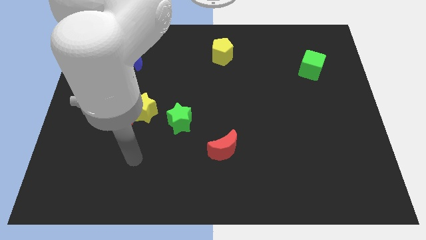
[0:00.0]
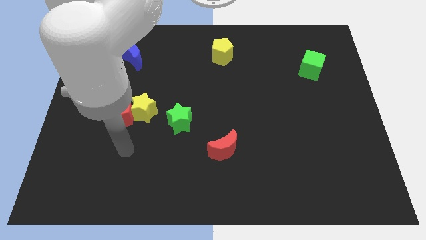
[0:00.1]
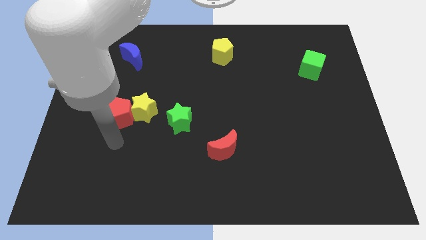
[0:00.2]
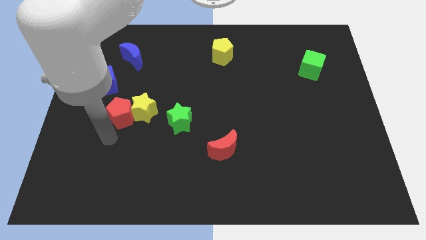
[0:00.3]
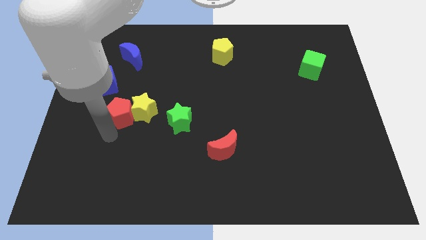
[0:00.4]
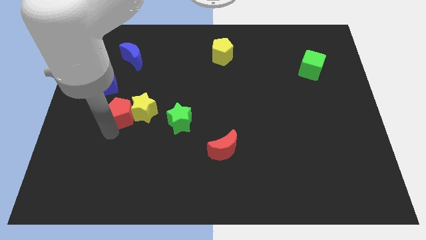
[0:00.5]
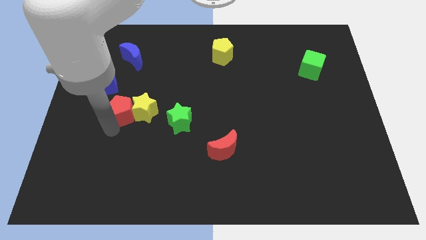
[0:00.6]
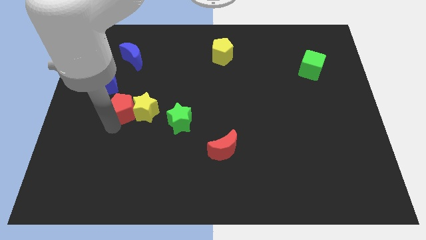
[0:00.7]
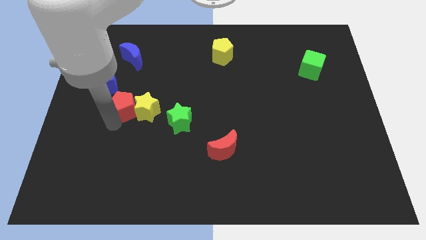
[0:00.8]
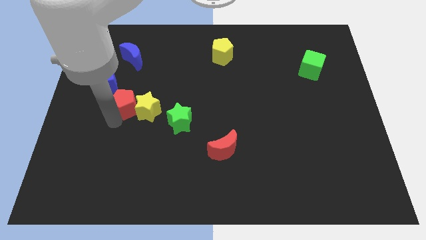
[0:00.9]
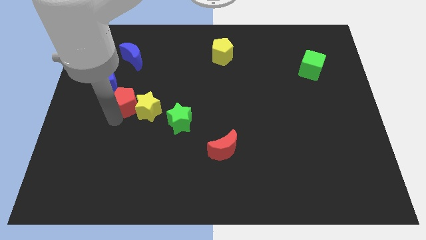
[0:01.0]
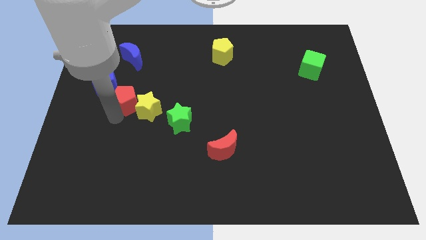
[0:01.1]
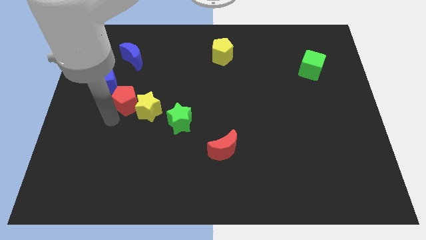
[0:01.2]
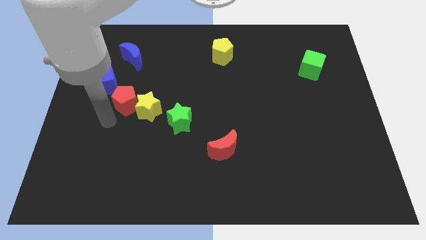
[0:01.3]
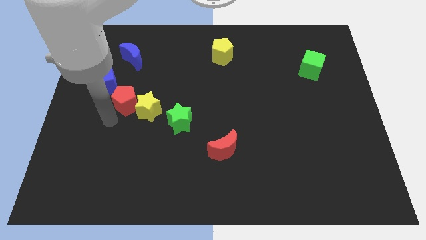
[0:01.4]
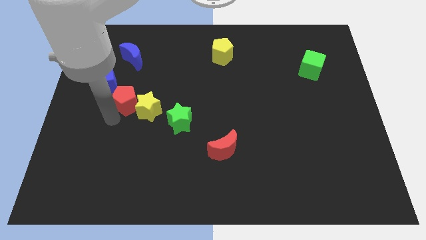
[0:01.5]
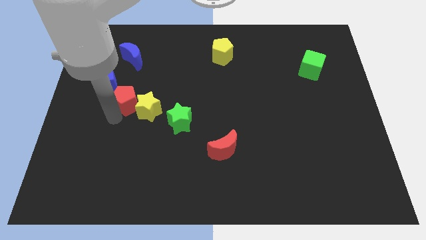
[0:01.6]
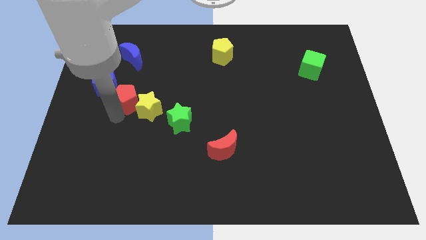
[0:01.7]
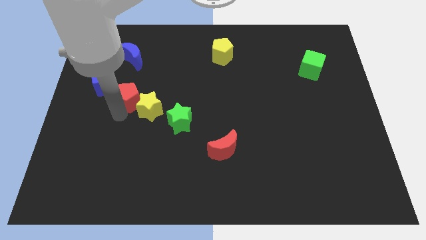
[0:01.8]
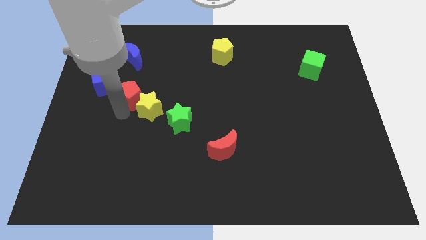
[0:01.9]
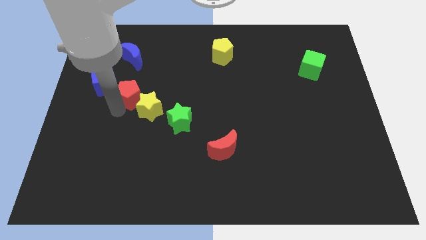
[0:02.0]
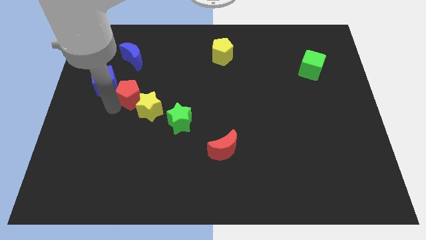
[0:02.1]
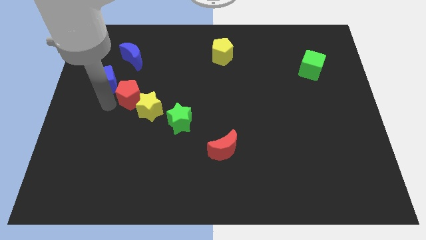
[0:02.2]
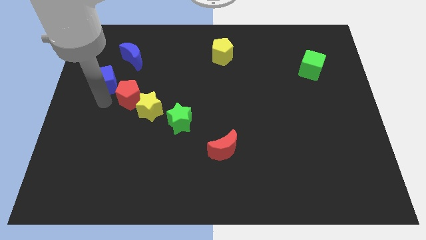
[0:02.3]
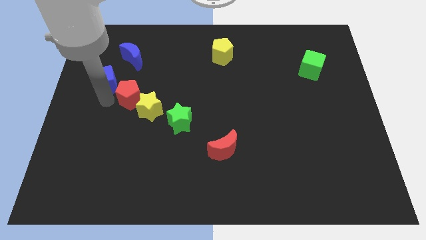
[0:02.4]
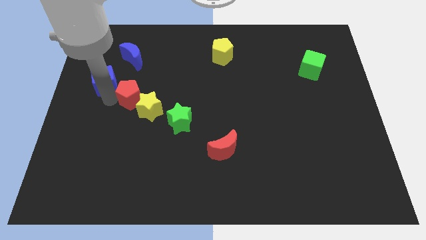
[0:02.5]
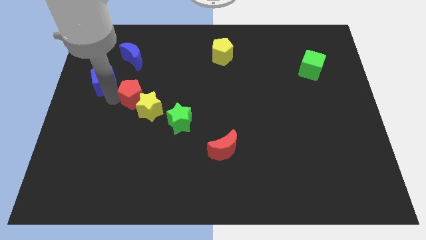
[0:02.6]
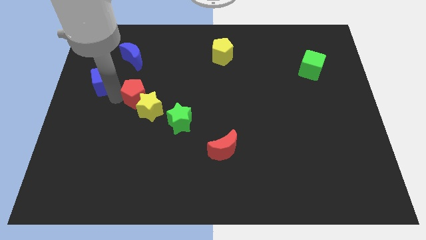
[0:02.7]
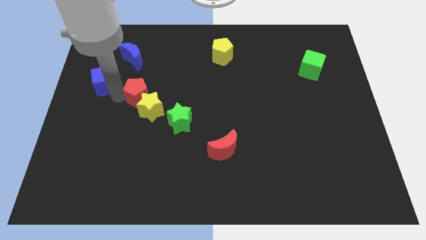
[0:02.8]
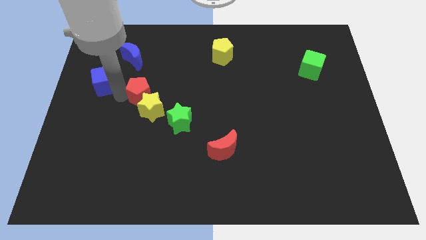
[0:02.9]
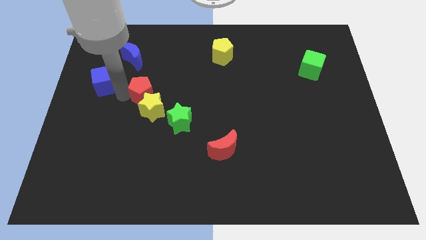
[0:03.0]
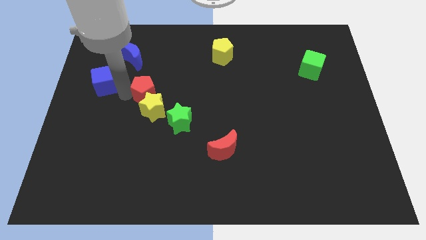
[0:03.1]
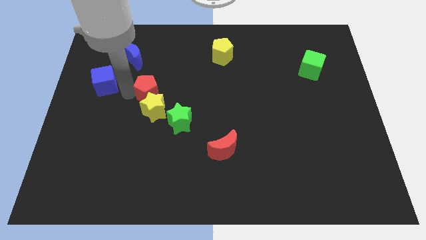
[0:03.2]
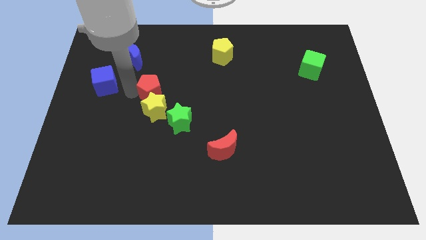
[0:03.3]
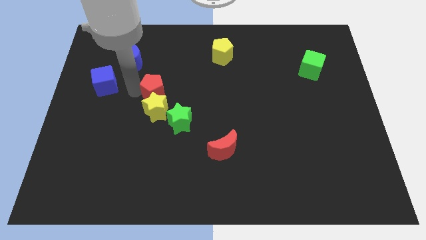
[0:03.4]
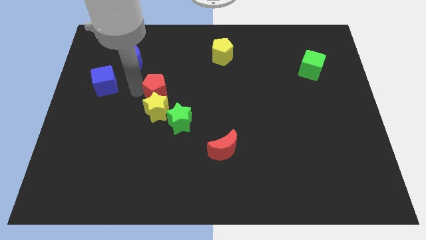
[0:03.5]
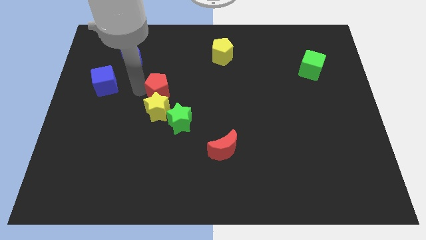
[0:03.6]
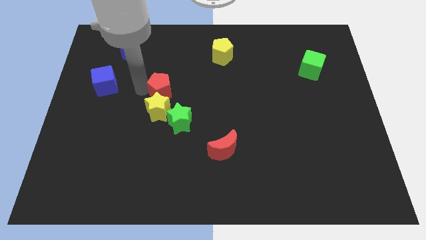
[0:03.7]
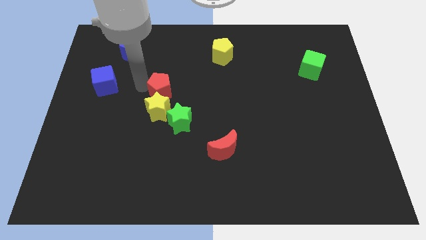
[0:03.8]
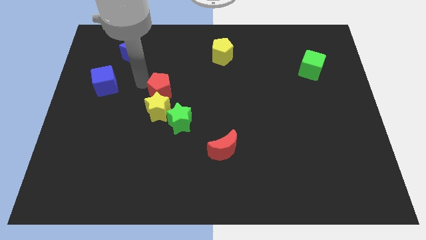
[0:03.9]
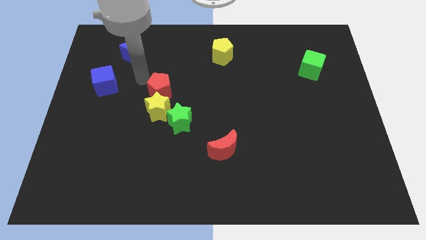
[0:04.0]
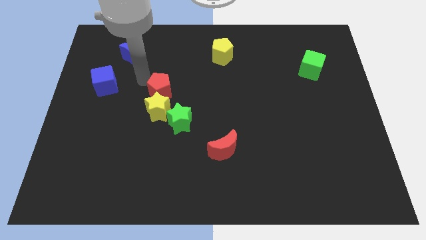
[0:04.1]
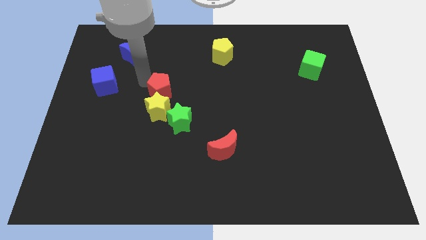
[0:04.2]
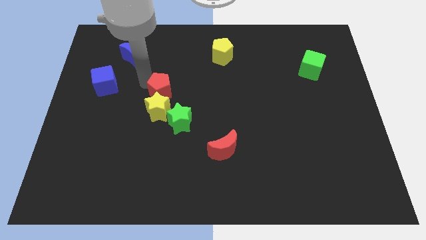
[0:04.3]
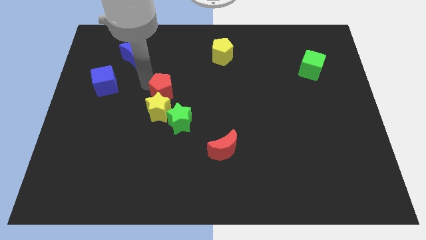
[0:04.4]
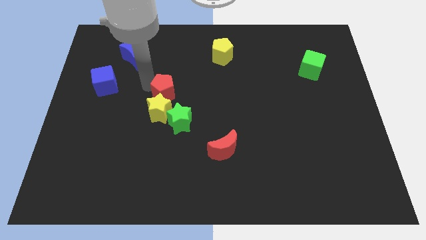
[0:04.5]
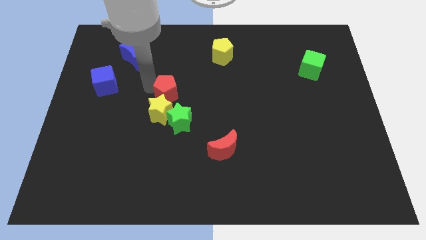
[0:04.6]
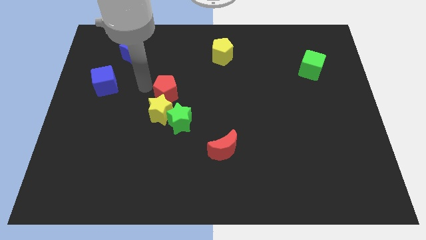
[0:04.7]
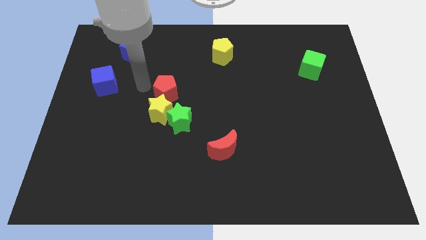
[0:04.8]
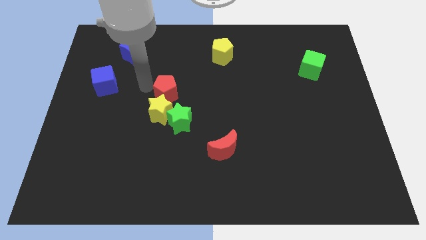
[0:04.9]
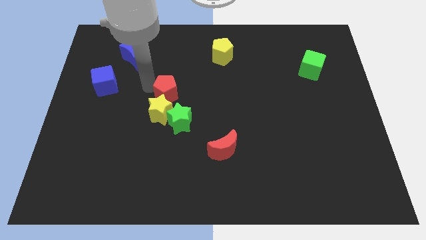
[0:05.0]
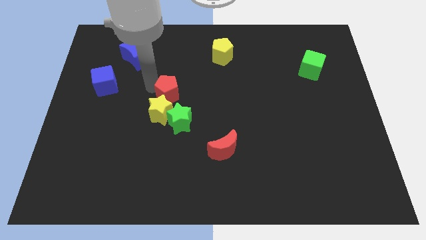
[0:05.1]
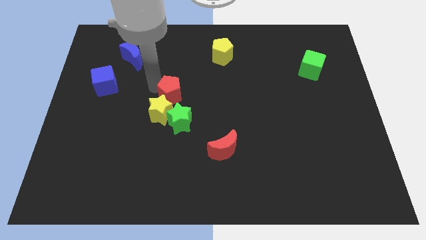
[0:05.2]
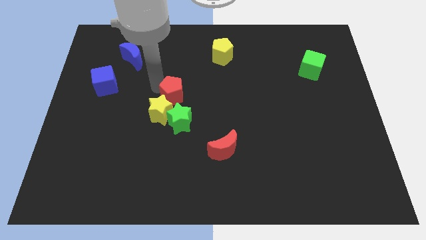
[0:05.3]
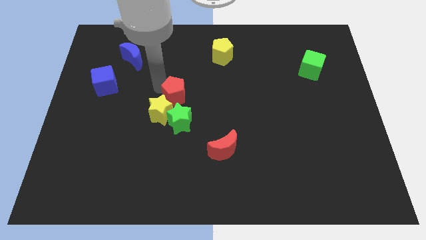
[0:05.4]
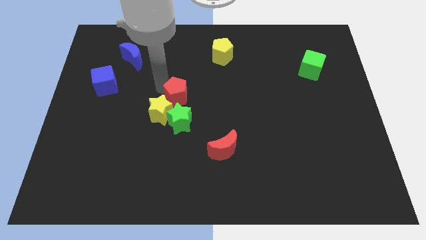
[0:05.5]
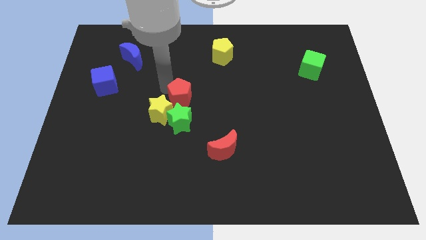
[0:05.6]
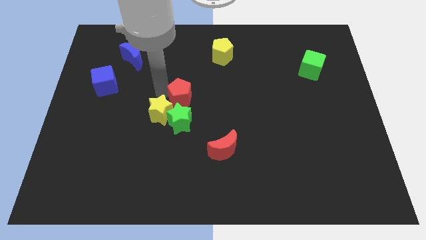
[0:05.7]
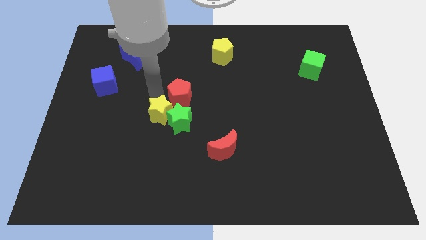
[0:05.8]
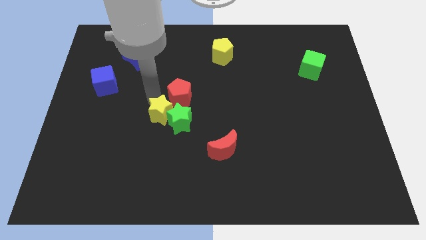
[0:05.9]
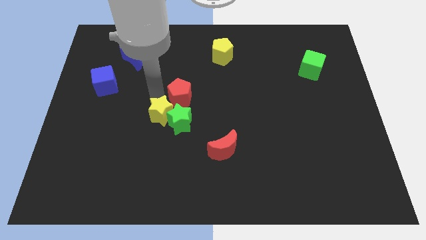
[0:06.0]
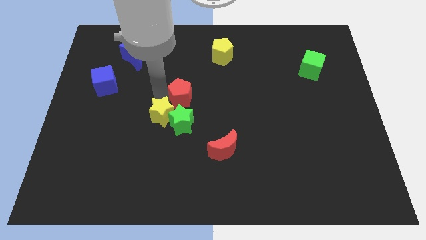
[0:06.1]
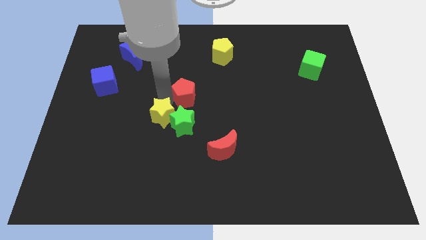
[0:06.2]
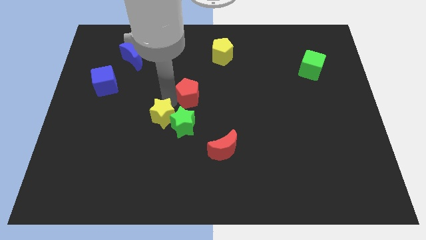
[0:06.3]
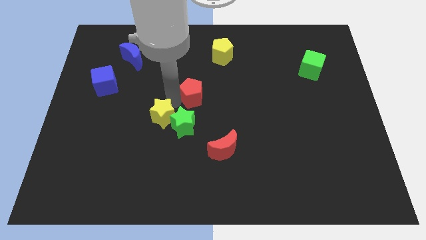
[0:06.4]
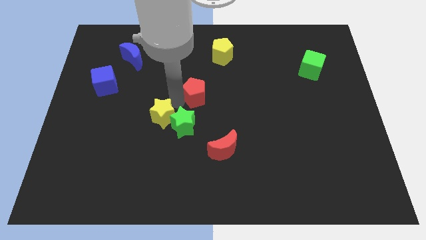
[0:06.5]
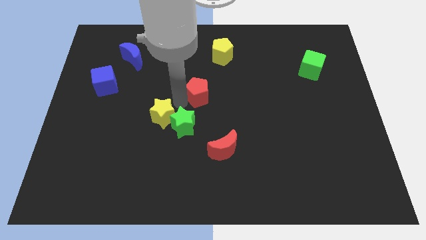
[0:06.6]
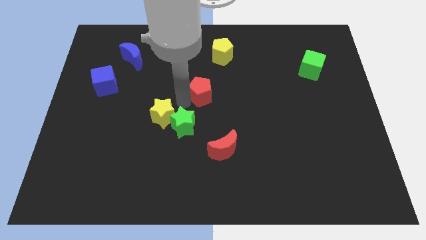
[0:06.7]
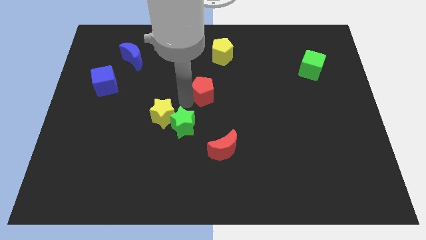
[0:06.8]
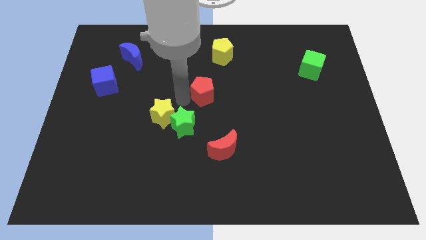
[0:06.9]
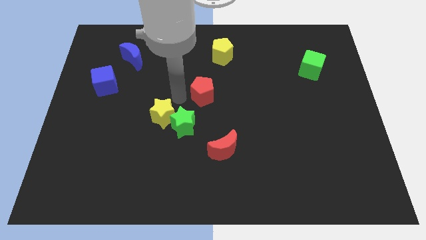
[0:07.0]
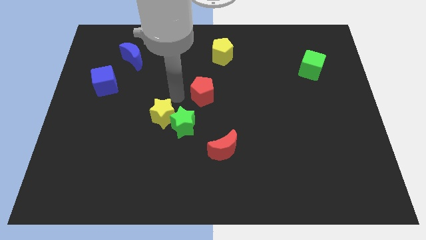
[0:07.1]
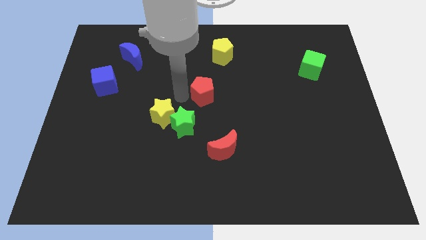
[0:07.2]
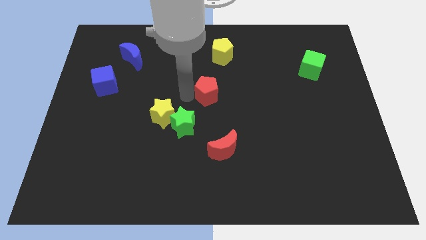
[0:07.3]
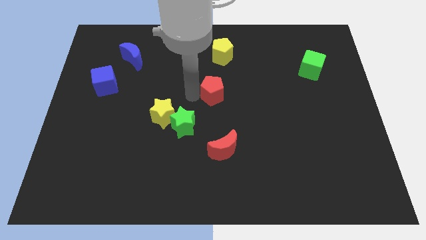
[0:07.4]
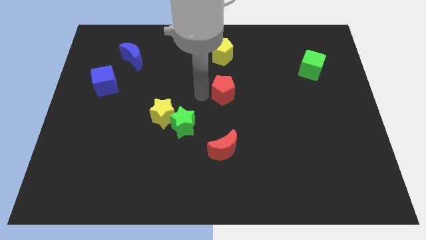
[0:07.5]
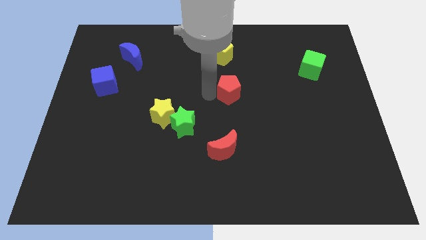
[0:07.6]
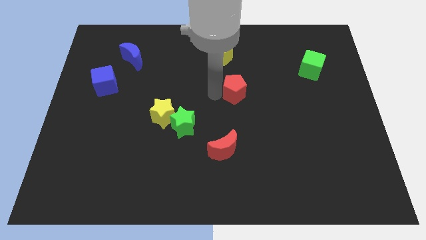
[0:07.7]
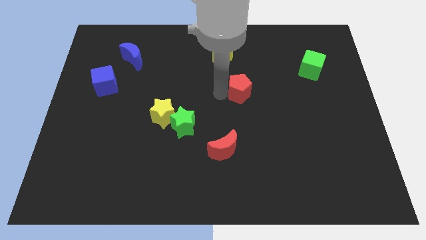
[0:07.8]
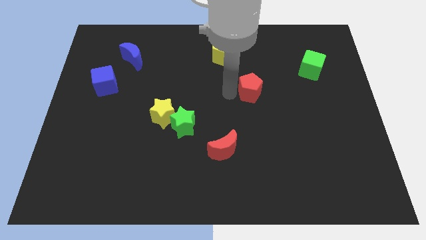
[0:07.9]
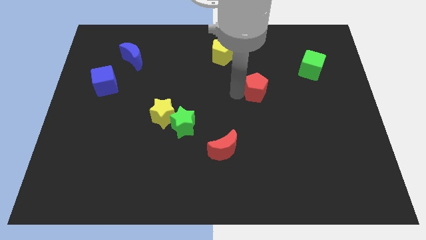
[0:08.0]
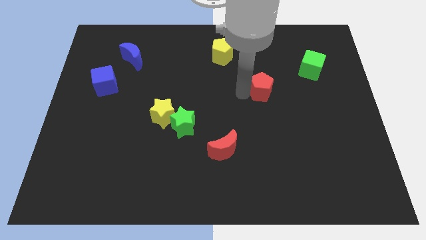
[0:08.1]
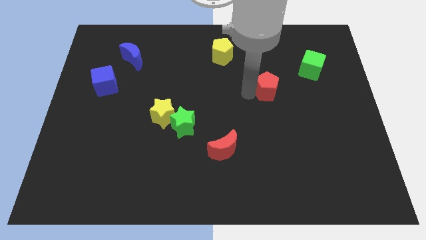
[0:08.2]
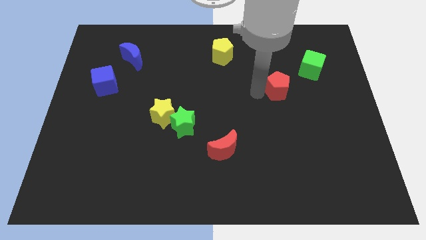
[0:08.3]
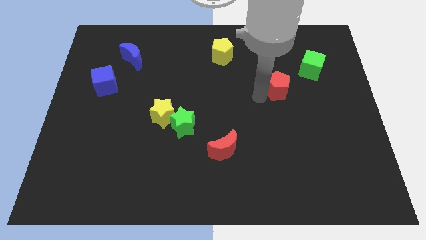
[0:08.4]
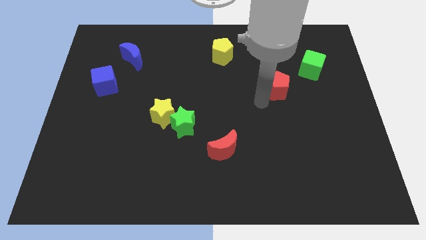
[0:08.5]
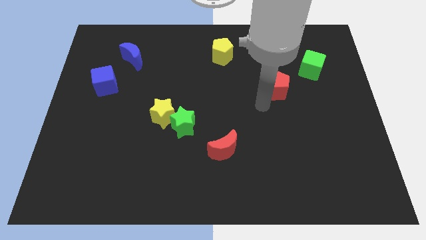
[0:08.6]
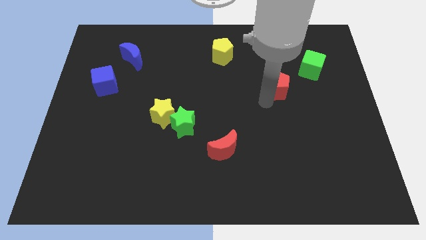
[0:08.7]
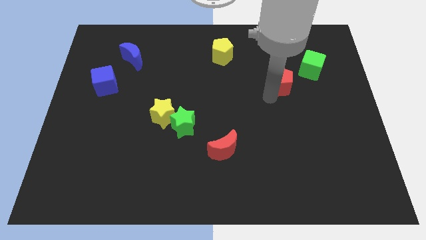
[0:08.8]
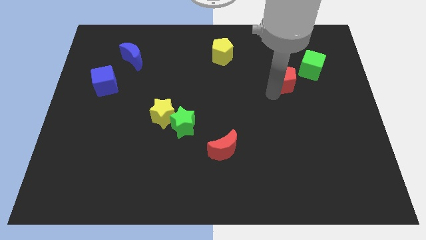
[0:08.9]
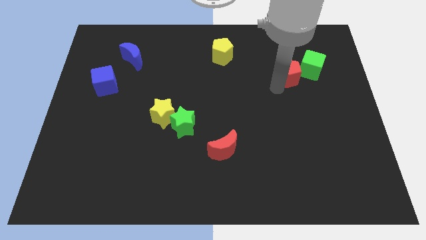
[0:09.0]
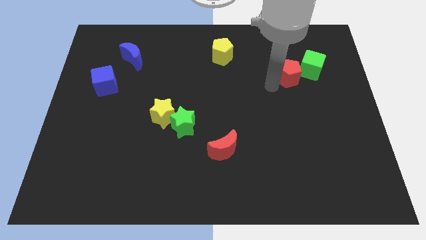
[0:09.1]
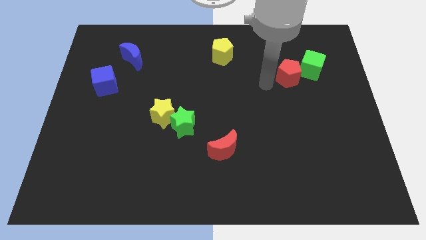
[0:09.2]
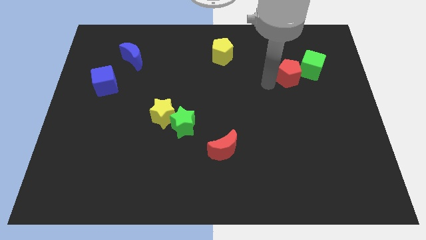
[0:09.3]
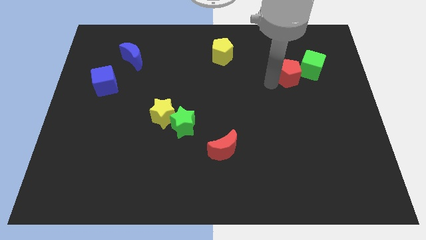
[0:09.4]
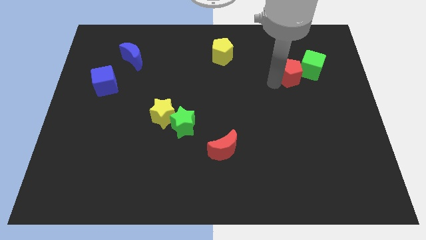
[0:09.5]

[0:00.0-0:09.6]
put the red pentagon next to the green cube
